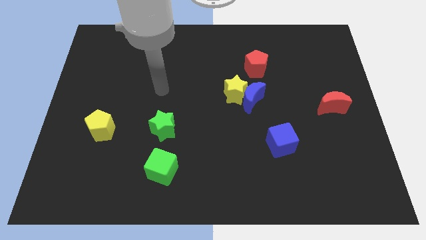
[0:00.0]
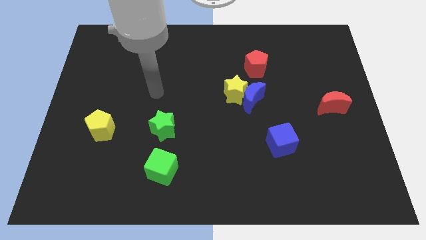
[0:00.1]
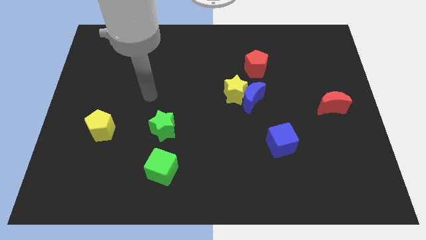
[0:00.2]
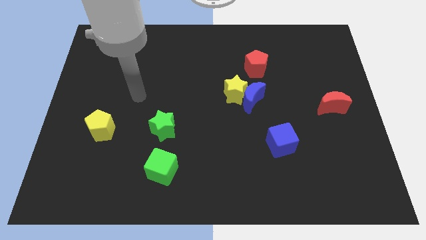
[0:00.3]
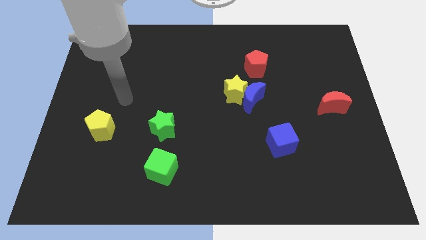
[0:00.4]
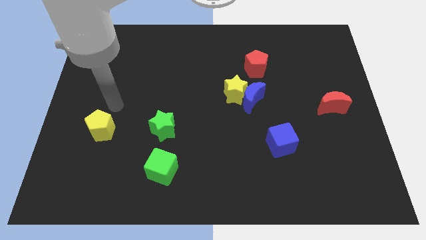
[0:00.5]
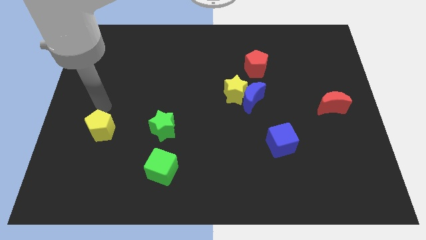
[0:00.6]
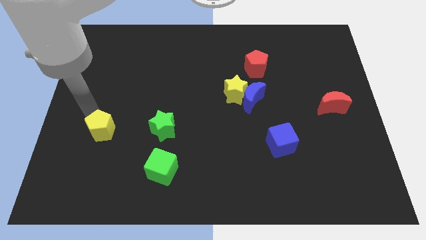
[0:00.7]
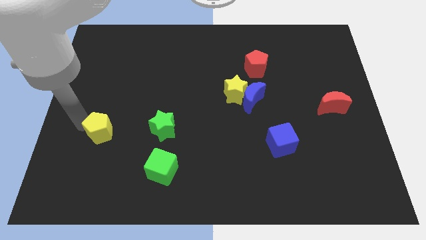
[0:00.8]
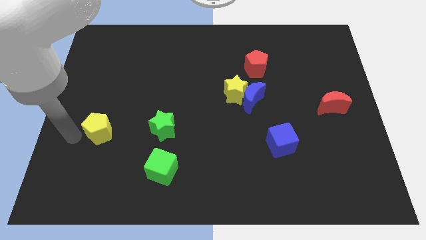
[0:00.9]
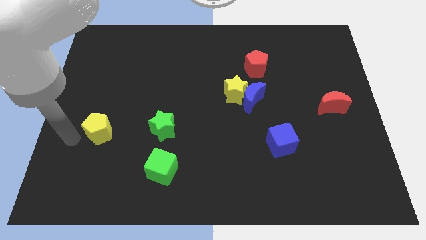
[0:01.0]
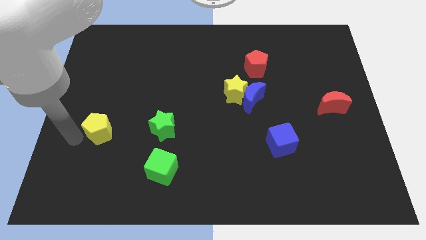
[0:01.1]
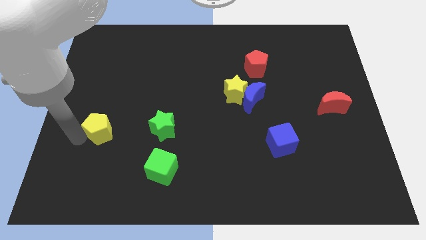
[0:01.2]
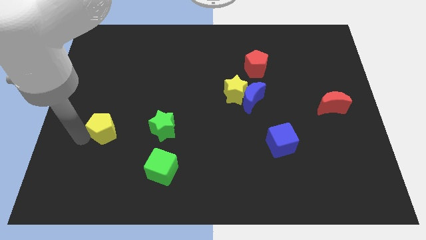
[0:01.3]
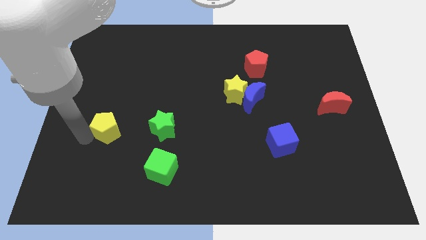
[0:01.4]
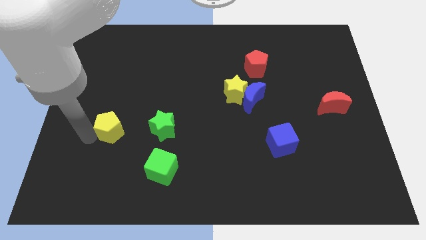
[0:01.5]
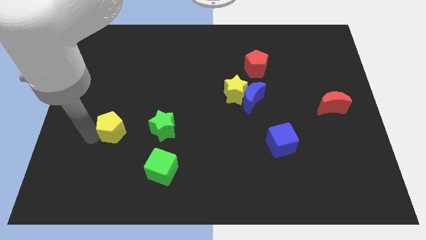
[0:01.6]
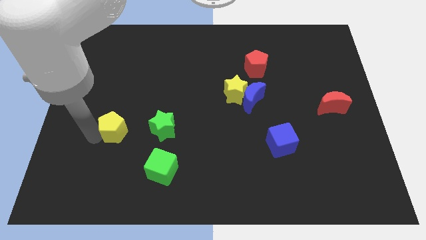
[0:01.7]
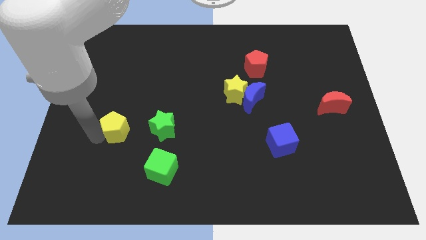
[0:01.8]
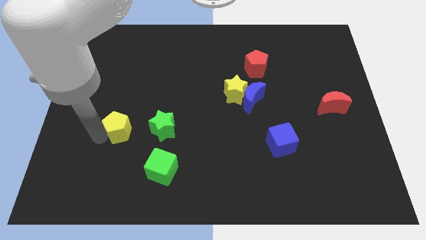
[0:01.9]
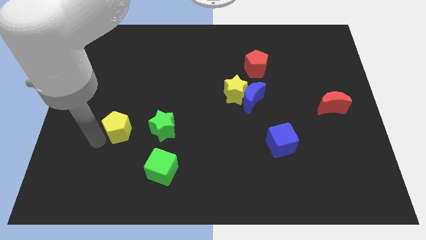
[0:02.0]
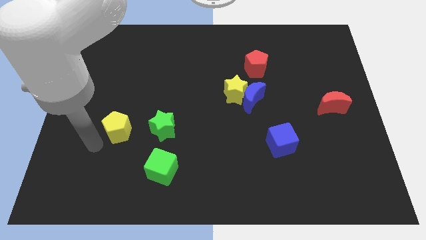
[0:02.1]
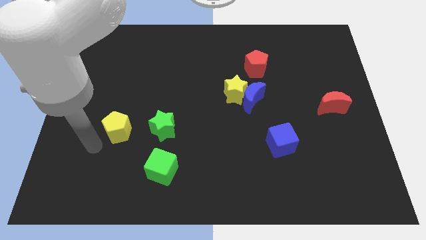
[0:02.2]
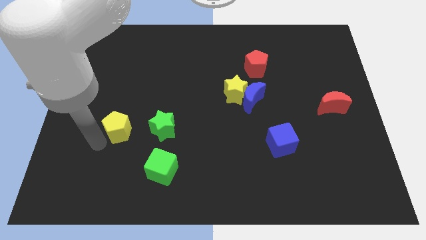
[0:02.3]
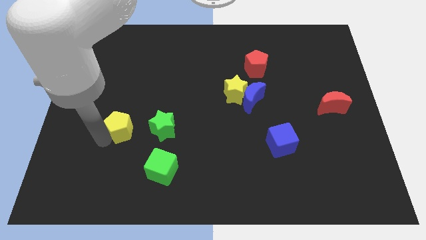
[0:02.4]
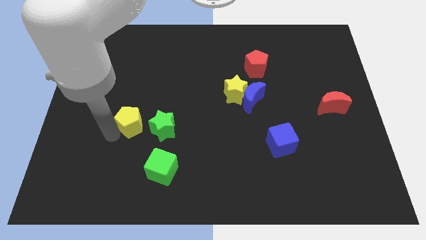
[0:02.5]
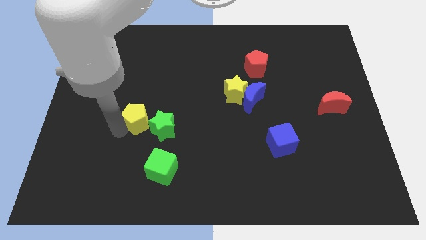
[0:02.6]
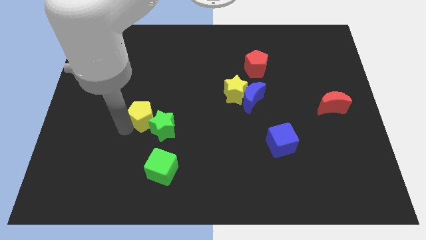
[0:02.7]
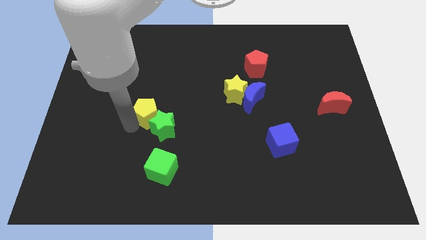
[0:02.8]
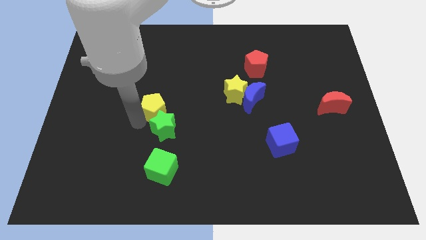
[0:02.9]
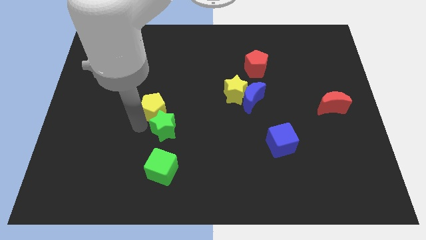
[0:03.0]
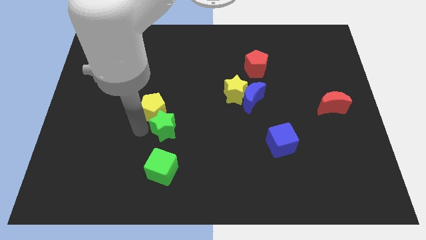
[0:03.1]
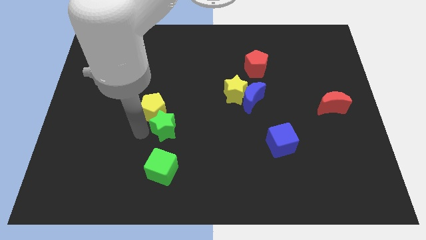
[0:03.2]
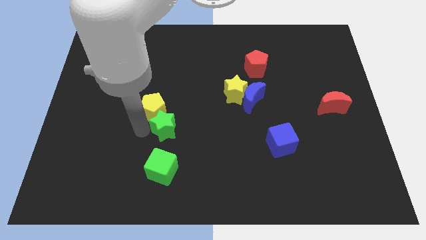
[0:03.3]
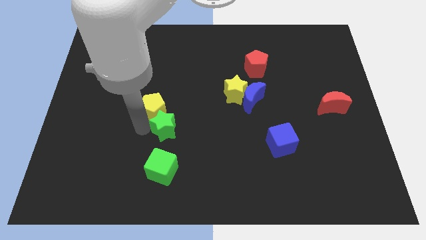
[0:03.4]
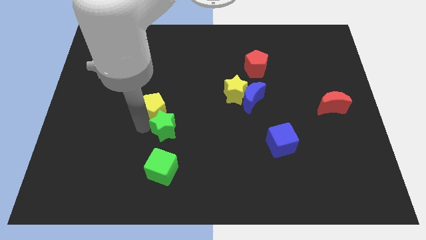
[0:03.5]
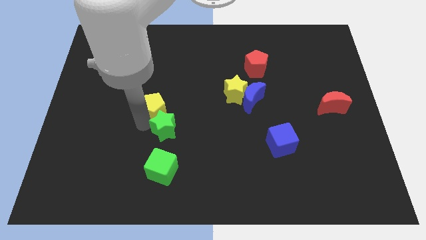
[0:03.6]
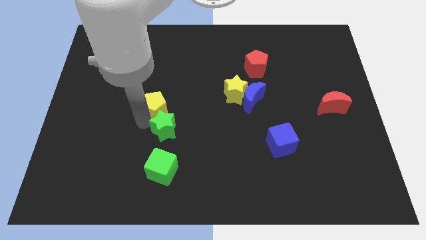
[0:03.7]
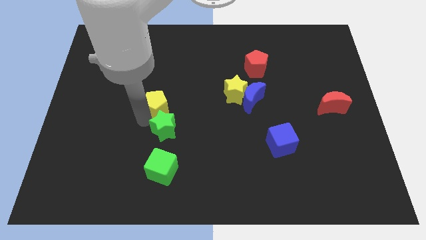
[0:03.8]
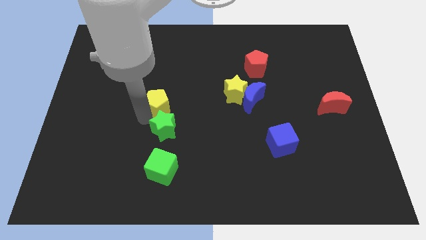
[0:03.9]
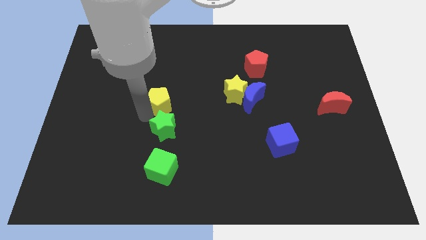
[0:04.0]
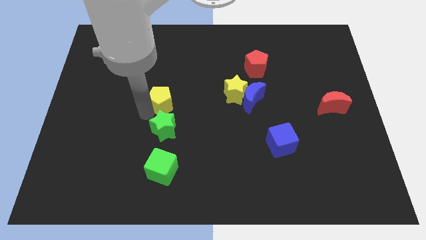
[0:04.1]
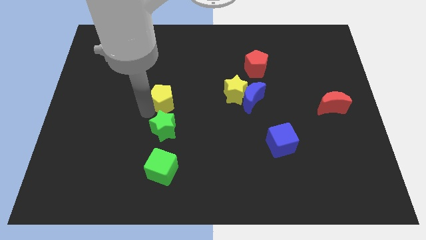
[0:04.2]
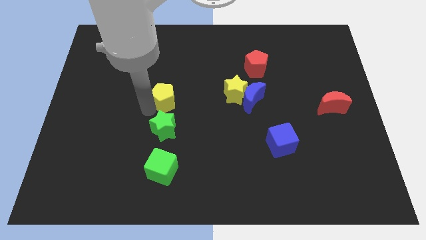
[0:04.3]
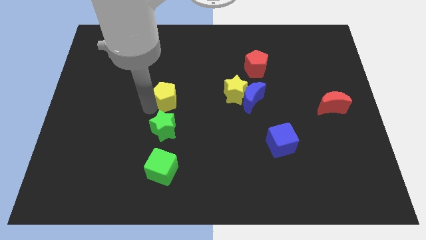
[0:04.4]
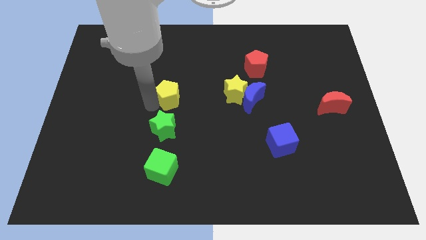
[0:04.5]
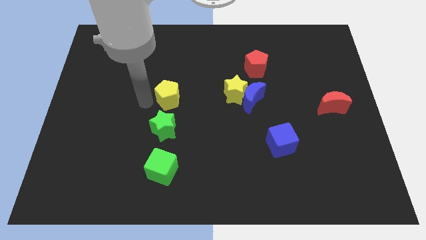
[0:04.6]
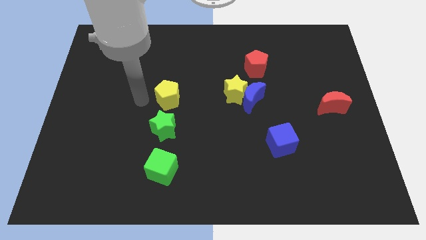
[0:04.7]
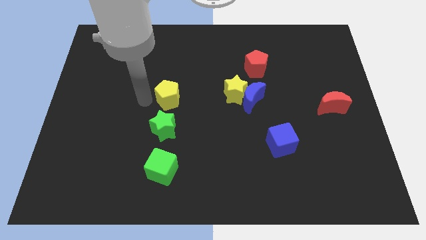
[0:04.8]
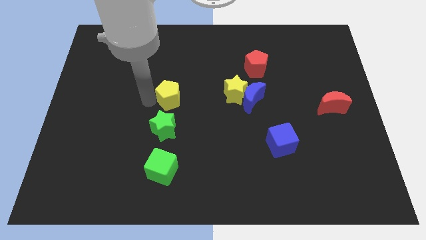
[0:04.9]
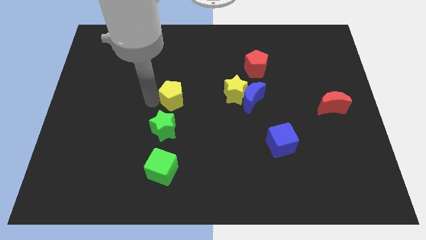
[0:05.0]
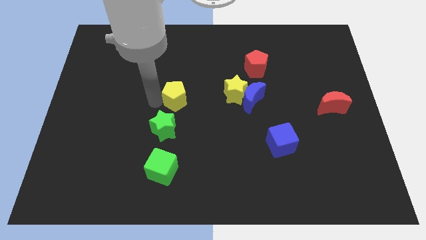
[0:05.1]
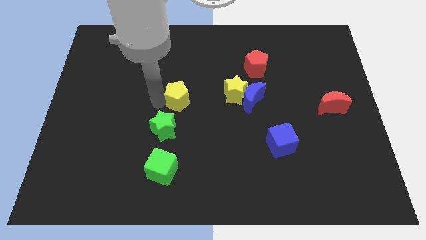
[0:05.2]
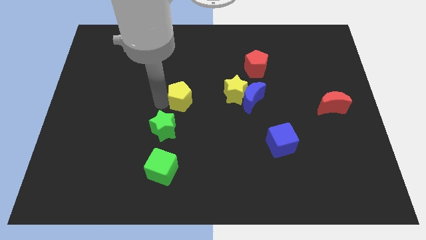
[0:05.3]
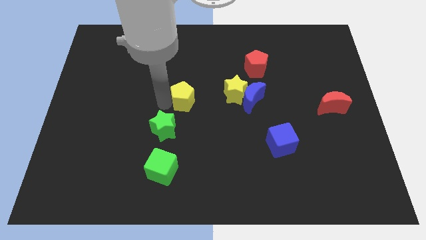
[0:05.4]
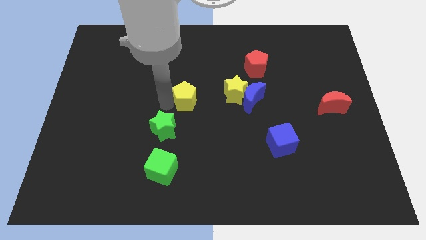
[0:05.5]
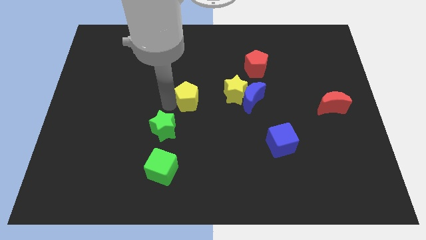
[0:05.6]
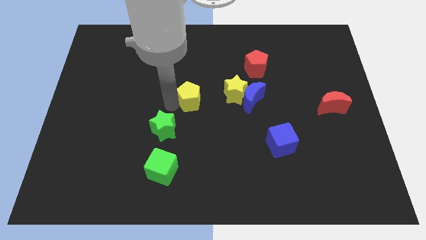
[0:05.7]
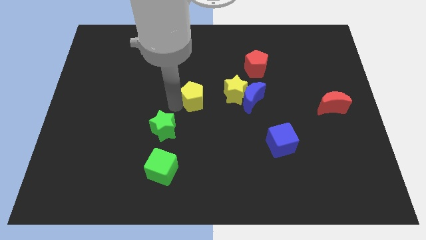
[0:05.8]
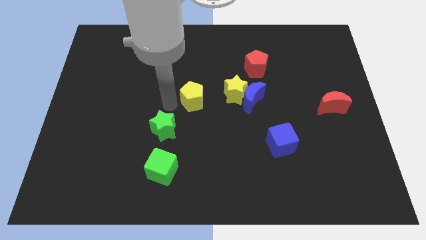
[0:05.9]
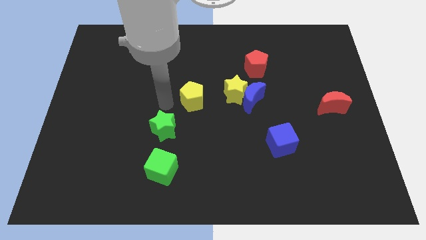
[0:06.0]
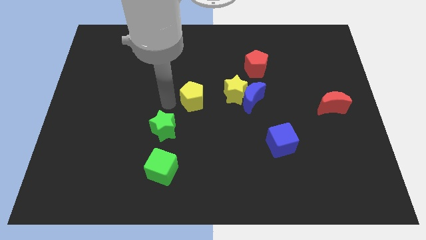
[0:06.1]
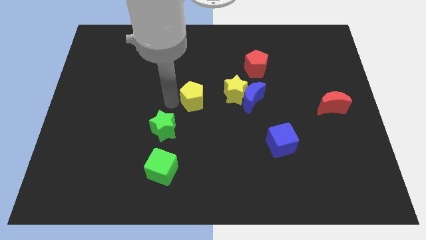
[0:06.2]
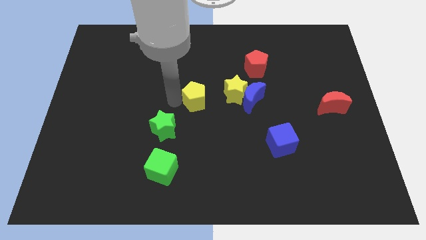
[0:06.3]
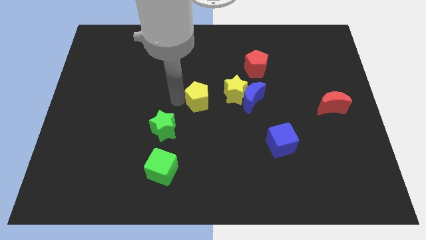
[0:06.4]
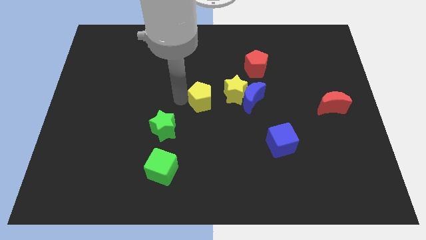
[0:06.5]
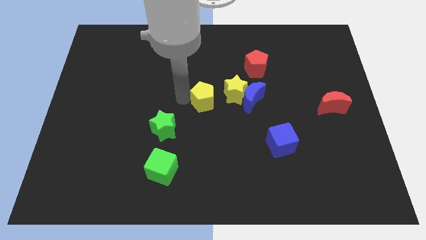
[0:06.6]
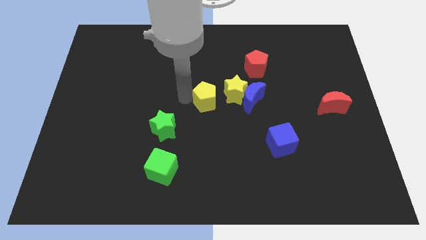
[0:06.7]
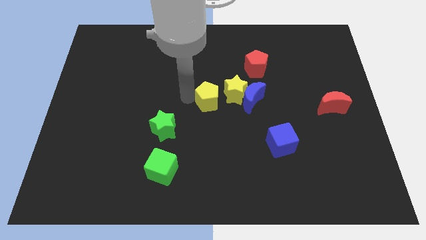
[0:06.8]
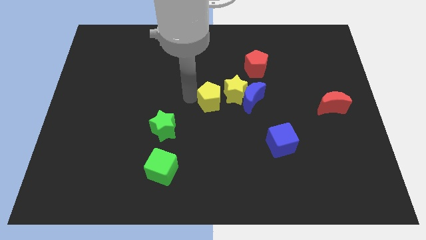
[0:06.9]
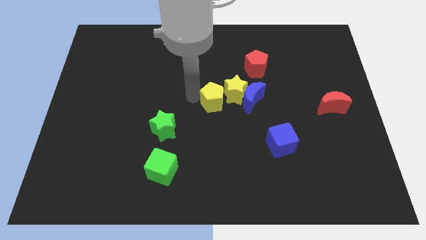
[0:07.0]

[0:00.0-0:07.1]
slide the yellow pentagon to the yellow star

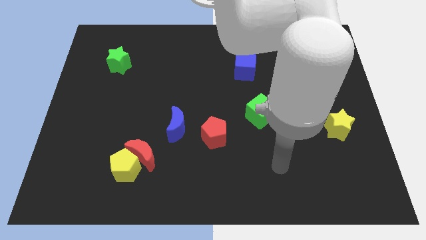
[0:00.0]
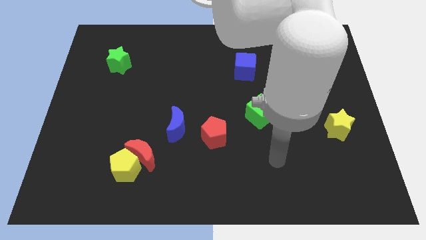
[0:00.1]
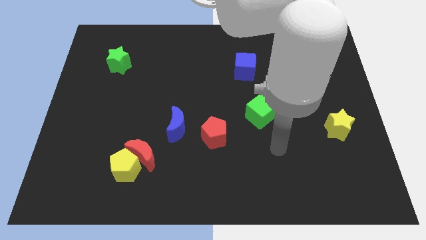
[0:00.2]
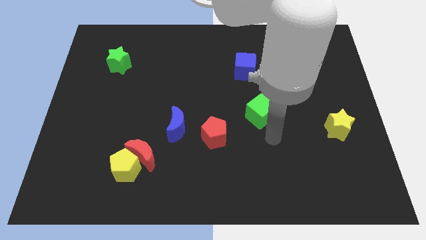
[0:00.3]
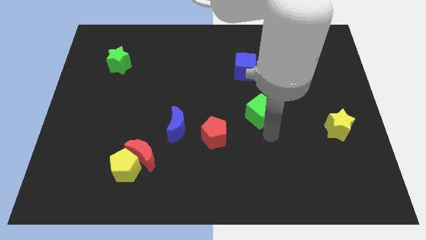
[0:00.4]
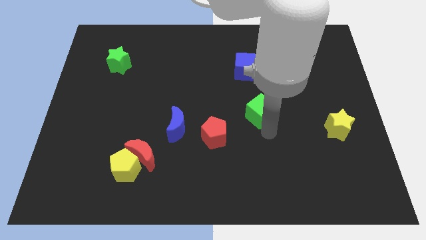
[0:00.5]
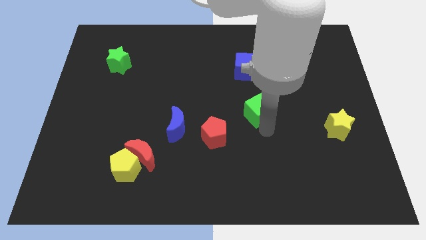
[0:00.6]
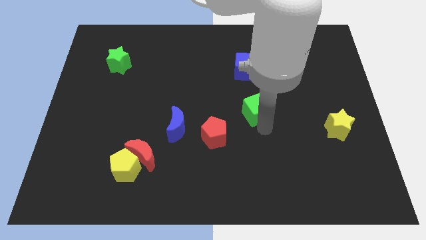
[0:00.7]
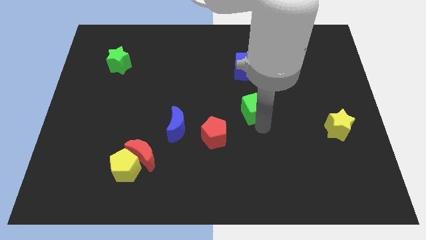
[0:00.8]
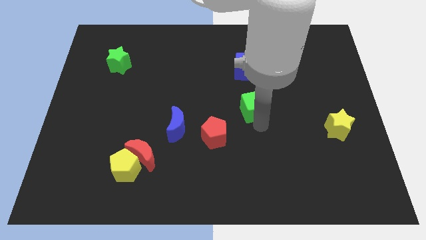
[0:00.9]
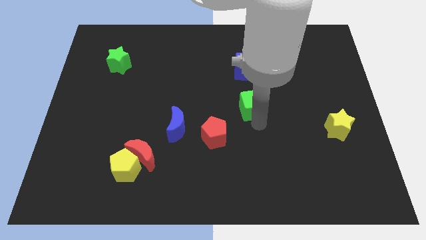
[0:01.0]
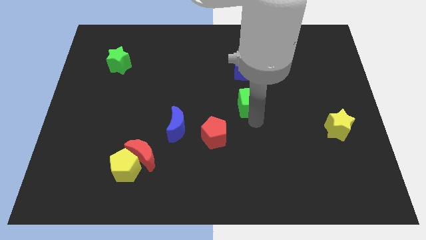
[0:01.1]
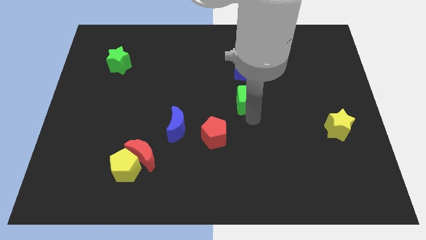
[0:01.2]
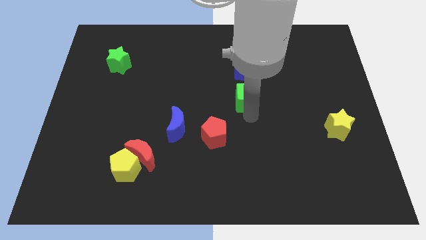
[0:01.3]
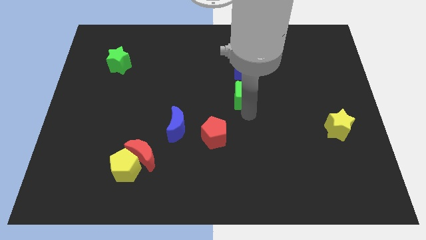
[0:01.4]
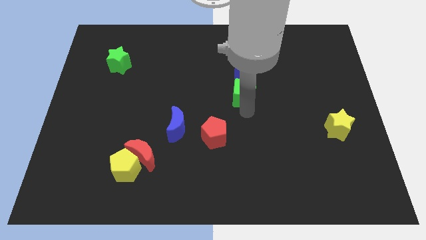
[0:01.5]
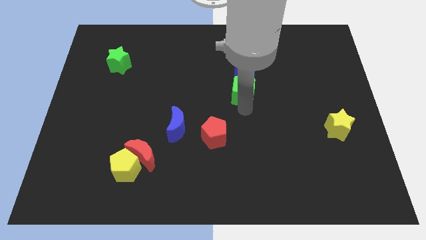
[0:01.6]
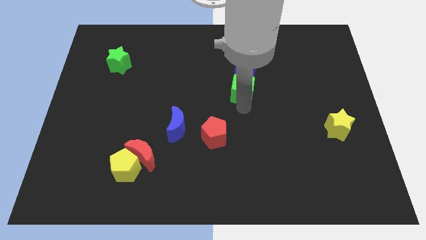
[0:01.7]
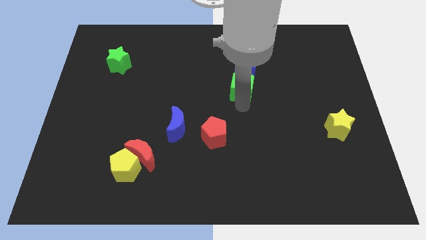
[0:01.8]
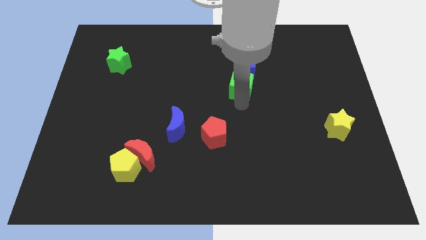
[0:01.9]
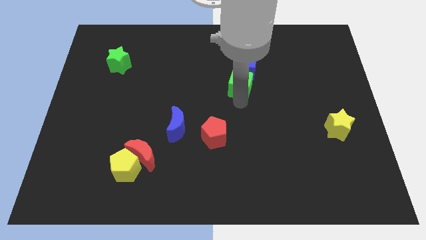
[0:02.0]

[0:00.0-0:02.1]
move the green cube close to the blue cube
